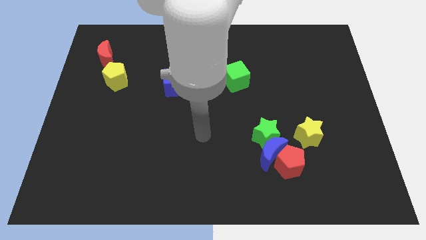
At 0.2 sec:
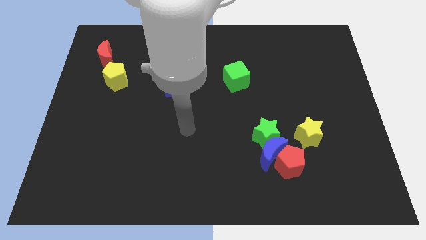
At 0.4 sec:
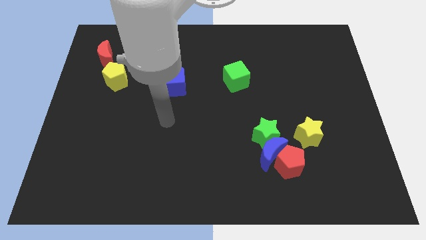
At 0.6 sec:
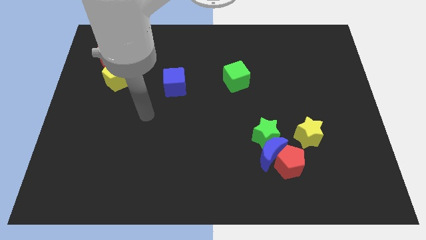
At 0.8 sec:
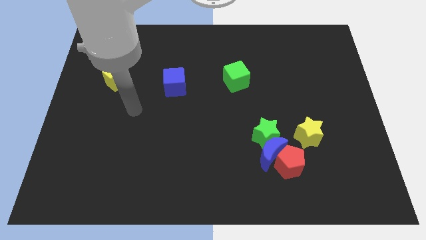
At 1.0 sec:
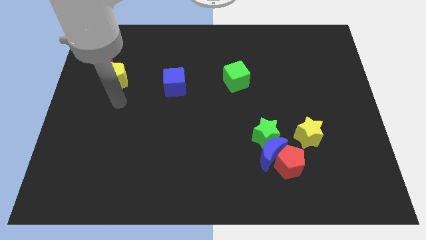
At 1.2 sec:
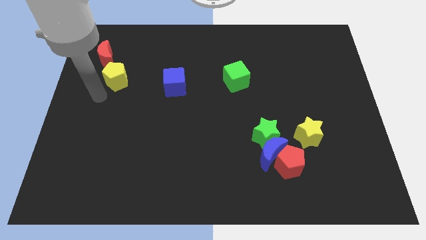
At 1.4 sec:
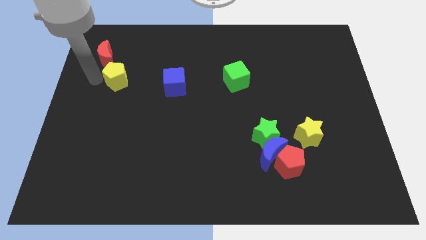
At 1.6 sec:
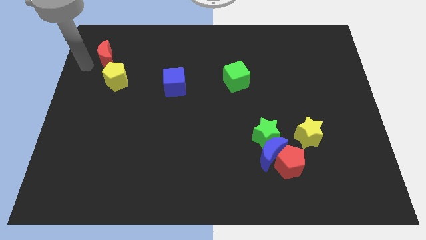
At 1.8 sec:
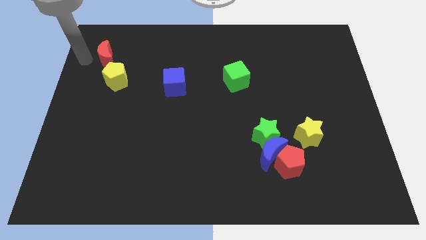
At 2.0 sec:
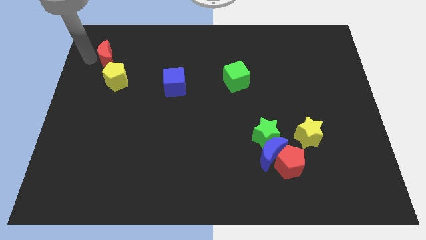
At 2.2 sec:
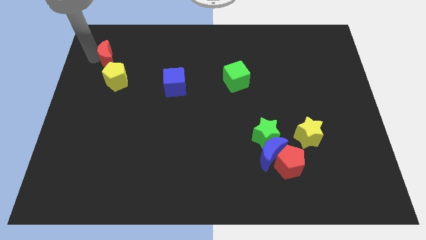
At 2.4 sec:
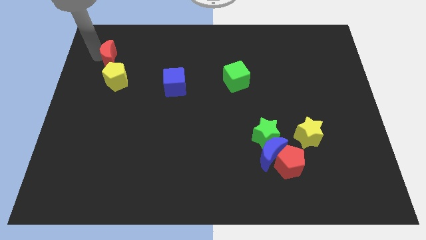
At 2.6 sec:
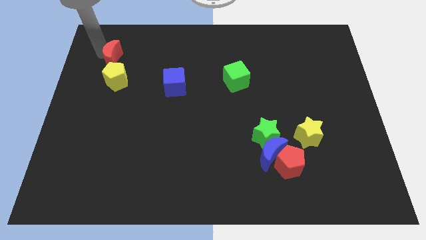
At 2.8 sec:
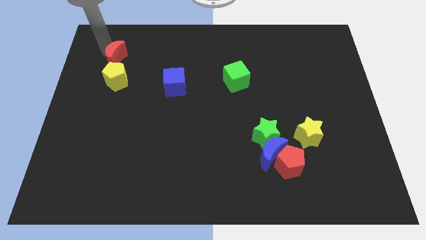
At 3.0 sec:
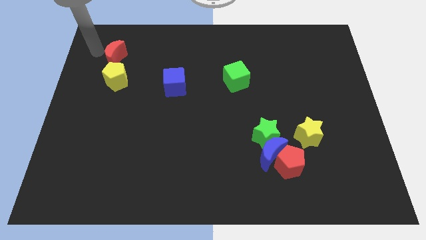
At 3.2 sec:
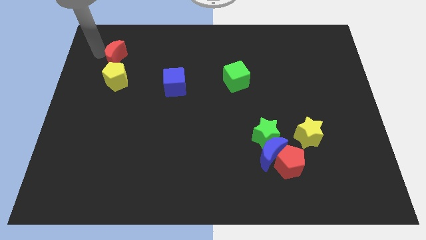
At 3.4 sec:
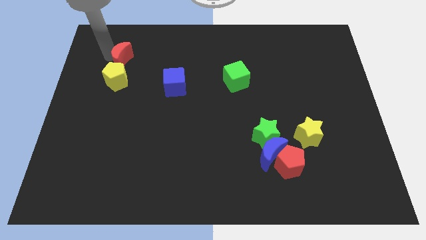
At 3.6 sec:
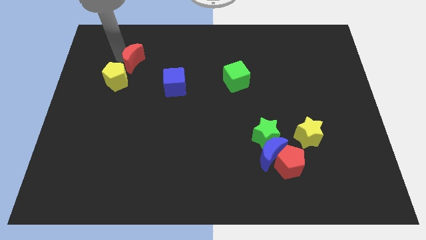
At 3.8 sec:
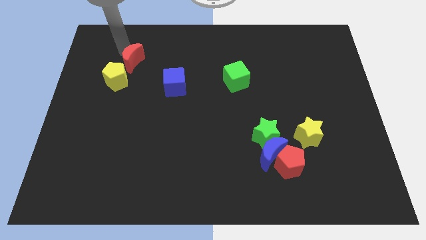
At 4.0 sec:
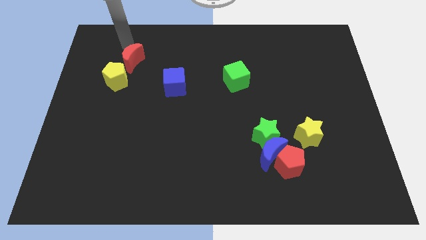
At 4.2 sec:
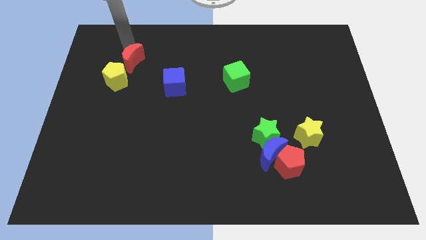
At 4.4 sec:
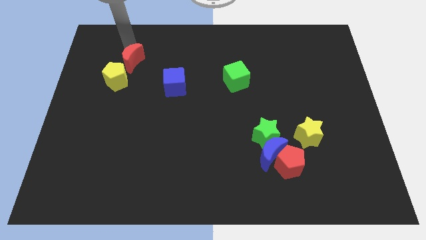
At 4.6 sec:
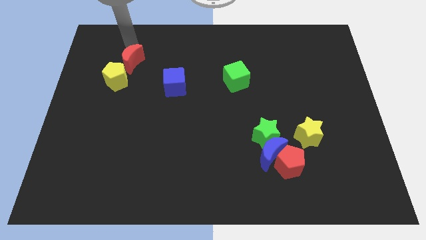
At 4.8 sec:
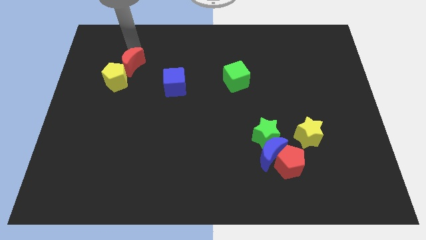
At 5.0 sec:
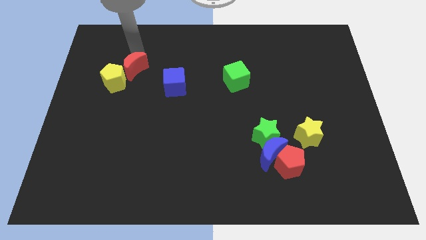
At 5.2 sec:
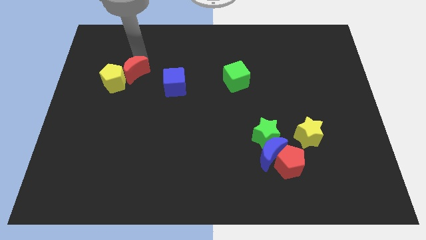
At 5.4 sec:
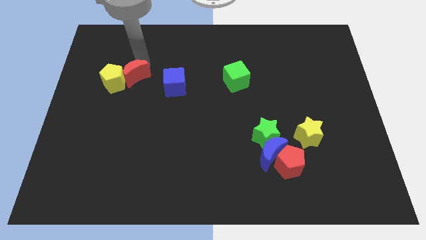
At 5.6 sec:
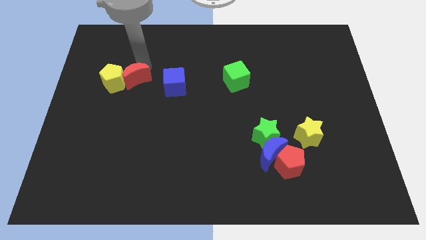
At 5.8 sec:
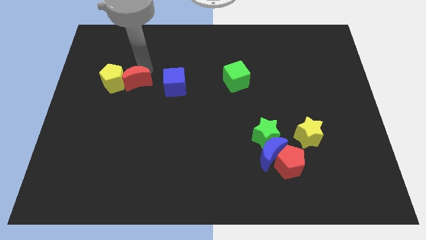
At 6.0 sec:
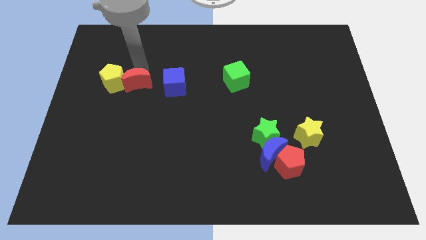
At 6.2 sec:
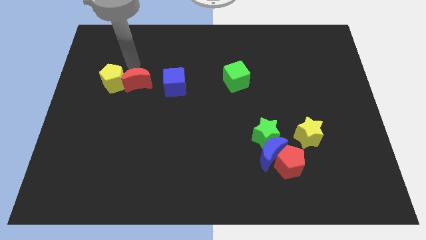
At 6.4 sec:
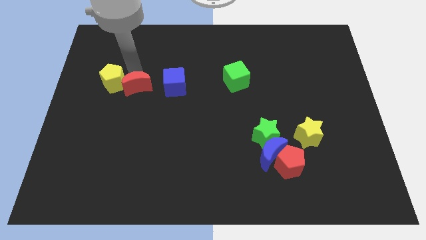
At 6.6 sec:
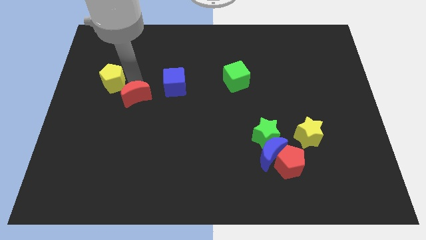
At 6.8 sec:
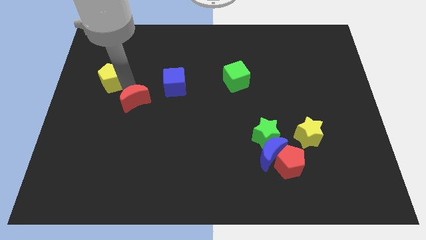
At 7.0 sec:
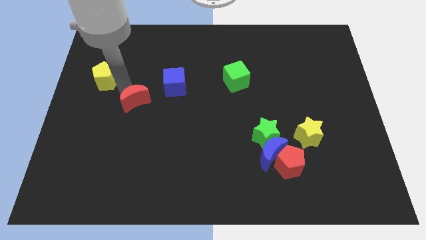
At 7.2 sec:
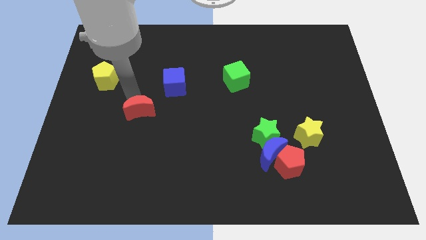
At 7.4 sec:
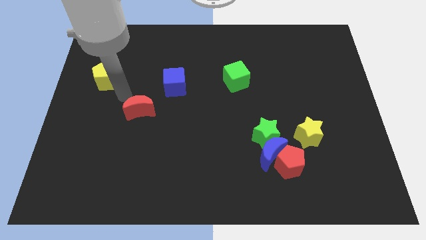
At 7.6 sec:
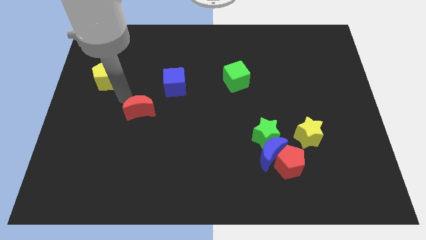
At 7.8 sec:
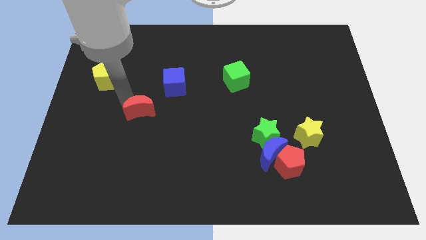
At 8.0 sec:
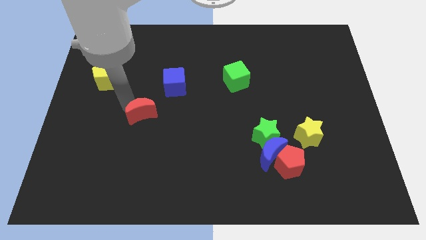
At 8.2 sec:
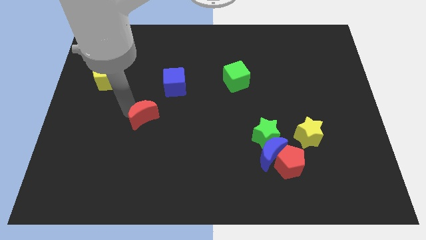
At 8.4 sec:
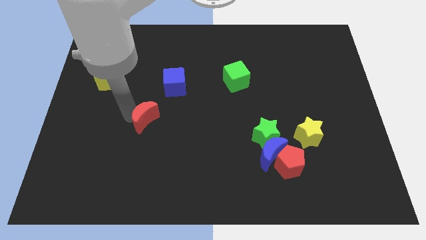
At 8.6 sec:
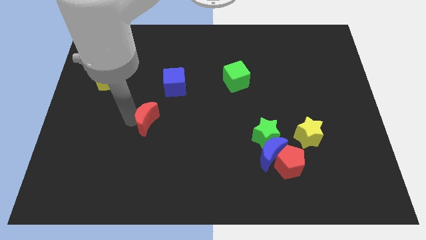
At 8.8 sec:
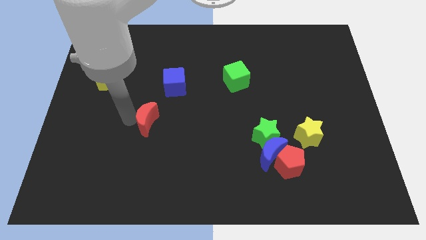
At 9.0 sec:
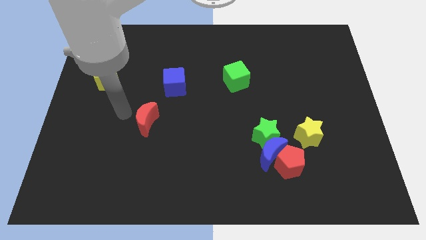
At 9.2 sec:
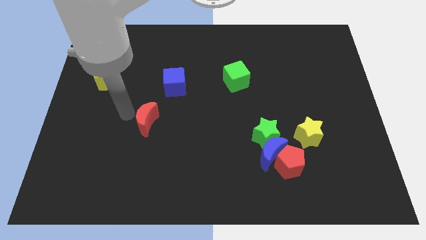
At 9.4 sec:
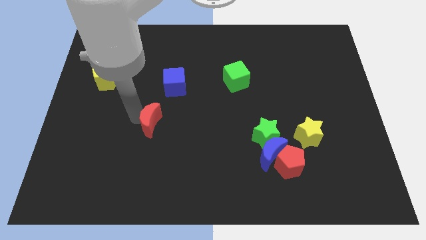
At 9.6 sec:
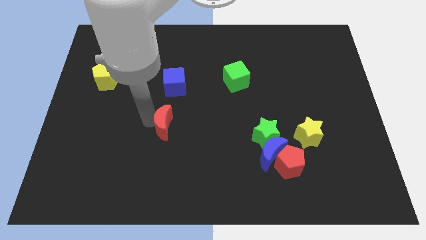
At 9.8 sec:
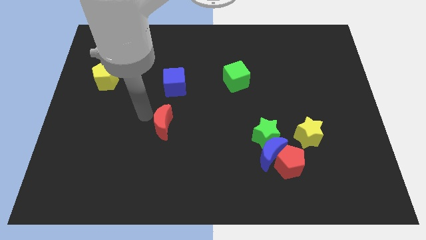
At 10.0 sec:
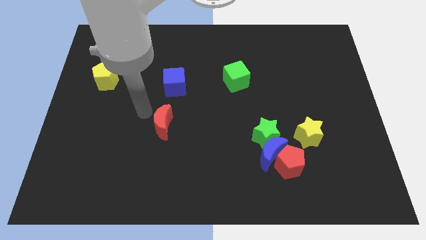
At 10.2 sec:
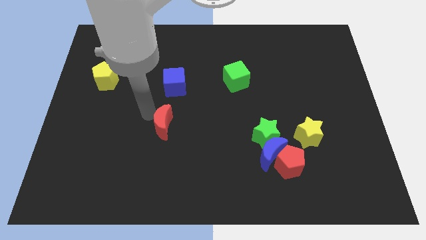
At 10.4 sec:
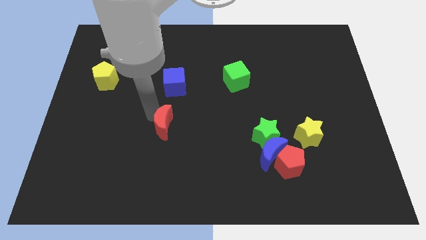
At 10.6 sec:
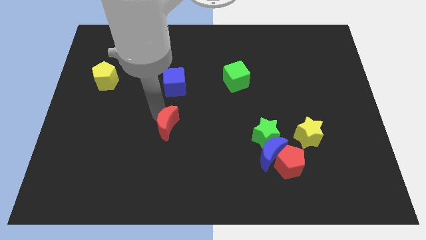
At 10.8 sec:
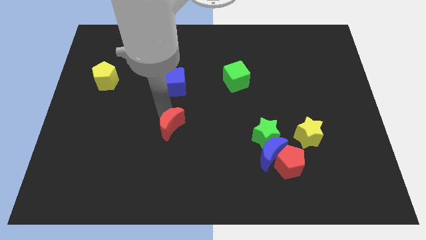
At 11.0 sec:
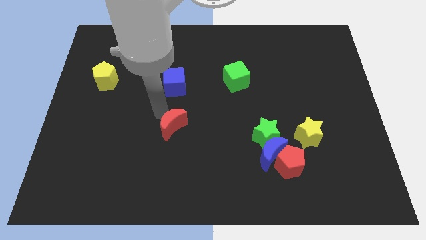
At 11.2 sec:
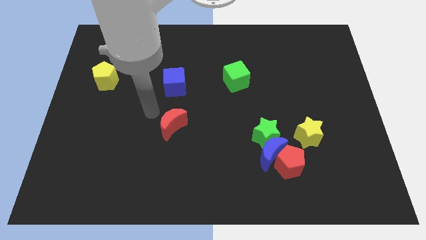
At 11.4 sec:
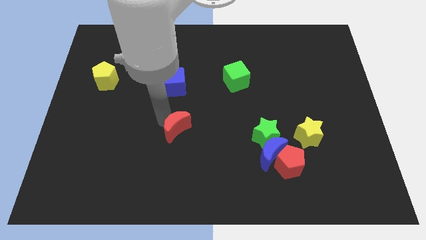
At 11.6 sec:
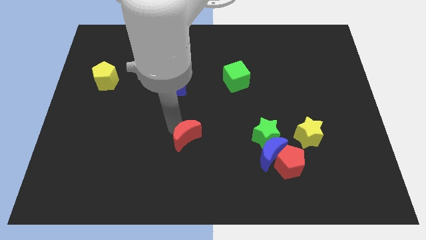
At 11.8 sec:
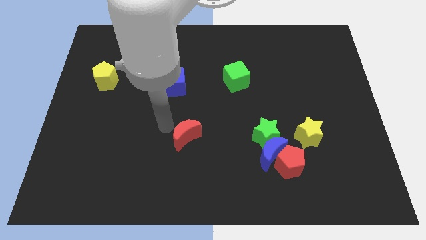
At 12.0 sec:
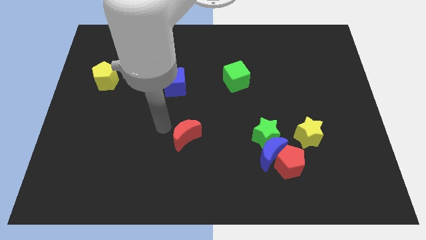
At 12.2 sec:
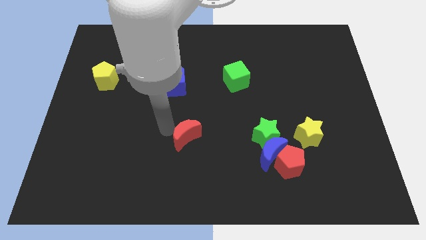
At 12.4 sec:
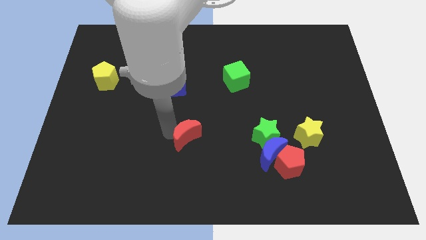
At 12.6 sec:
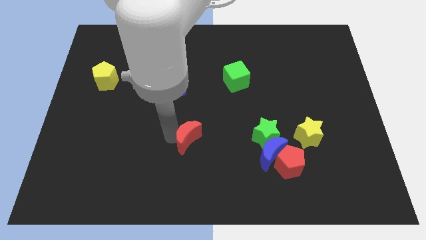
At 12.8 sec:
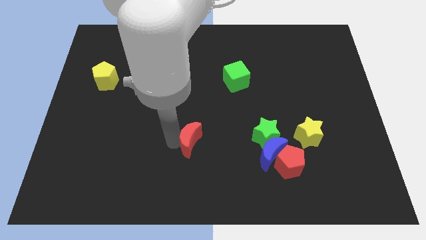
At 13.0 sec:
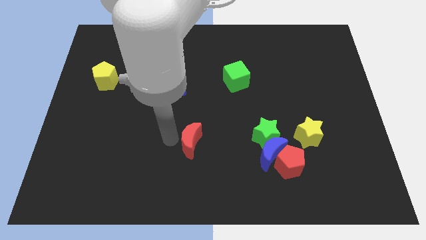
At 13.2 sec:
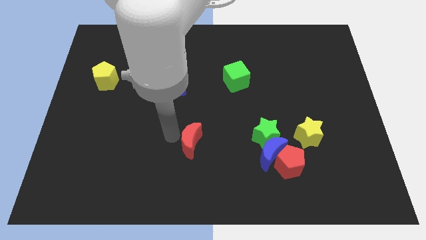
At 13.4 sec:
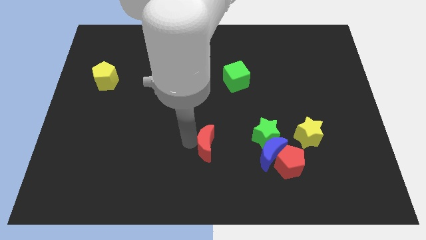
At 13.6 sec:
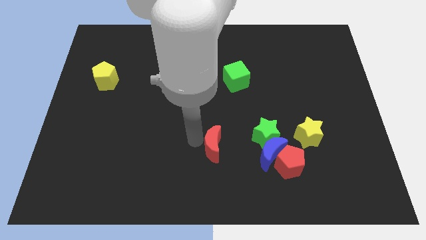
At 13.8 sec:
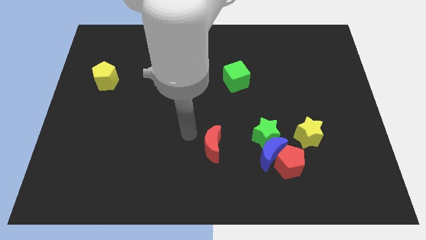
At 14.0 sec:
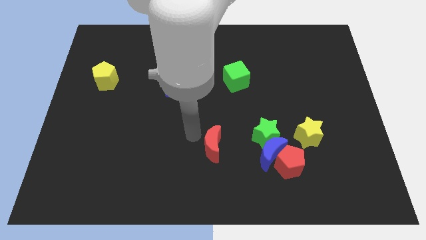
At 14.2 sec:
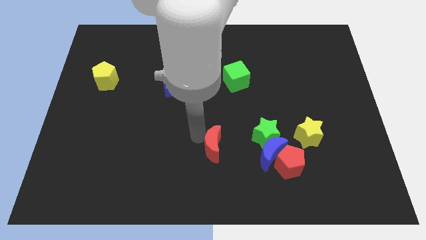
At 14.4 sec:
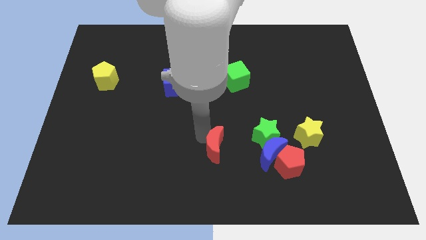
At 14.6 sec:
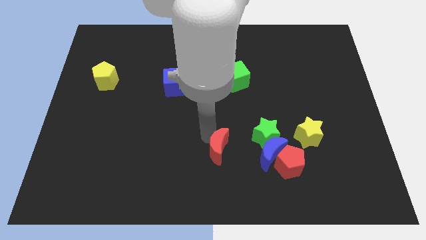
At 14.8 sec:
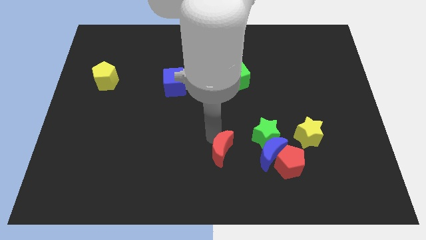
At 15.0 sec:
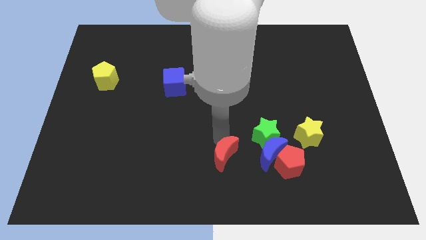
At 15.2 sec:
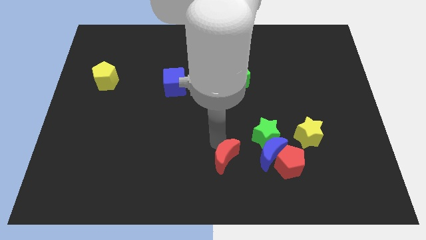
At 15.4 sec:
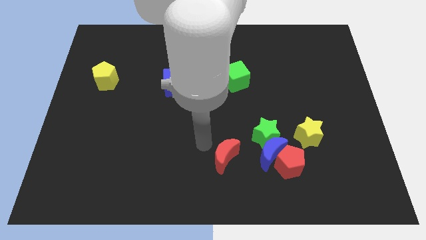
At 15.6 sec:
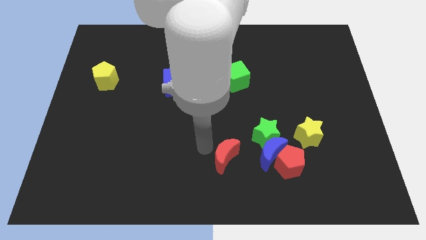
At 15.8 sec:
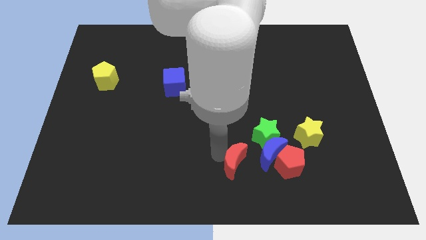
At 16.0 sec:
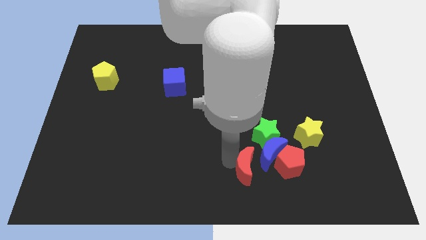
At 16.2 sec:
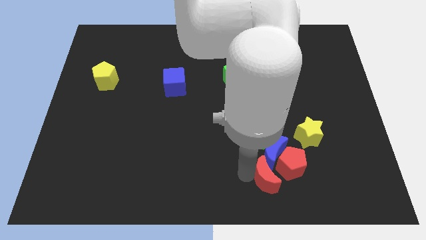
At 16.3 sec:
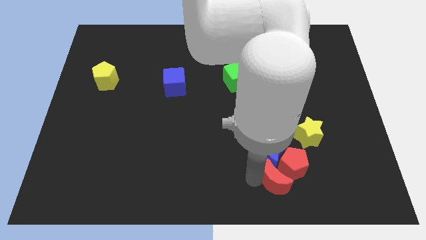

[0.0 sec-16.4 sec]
move the red moon to the red pentagon
